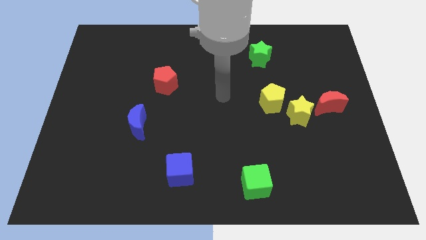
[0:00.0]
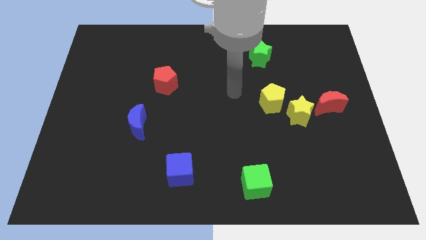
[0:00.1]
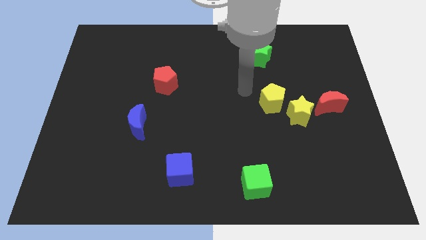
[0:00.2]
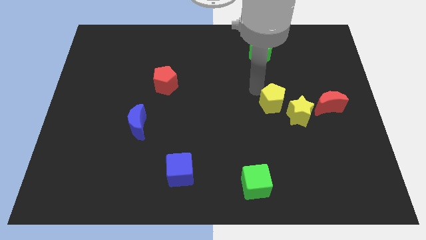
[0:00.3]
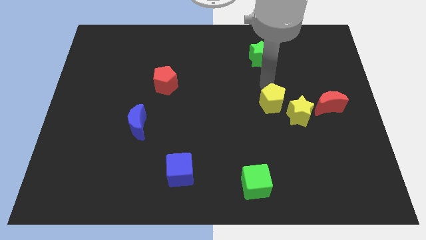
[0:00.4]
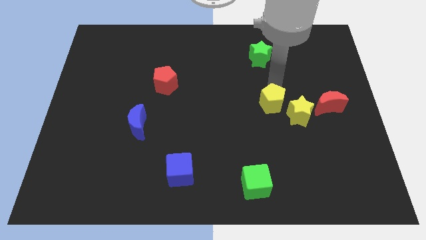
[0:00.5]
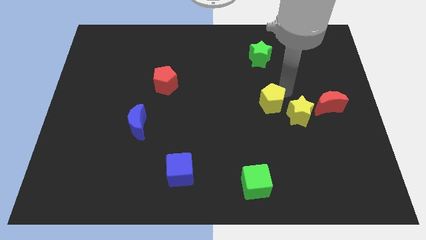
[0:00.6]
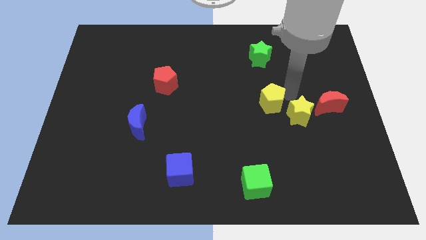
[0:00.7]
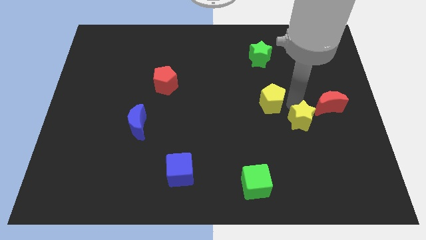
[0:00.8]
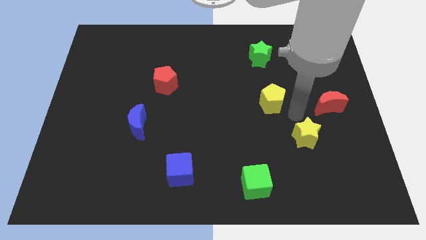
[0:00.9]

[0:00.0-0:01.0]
move the yellow pentagon away from the yellow star

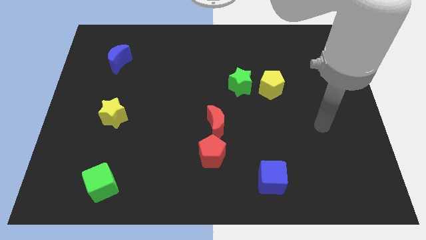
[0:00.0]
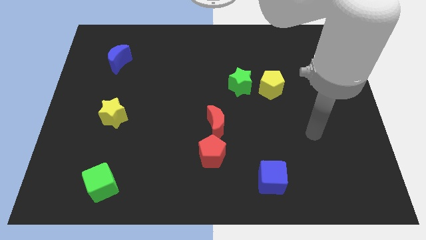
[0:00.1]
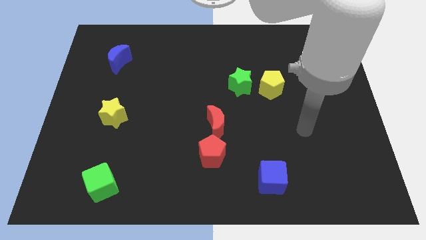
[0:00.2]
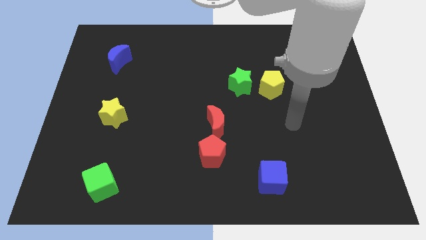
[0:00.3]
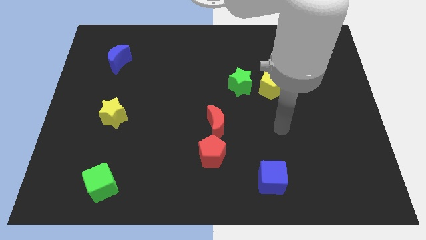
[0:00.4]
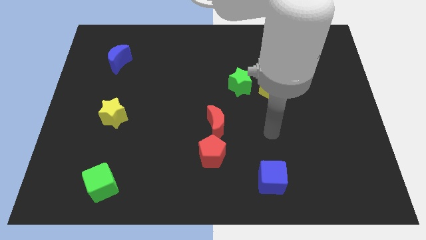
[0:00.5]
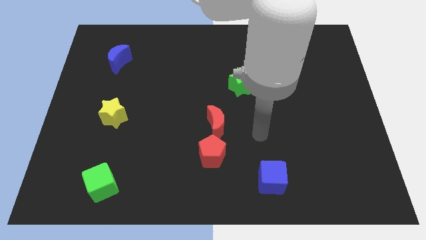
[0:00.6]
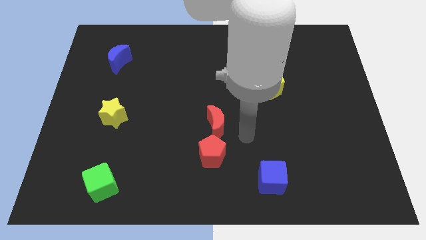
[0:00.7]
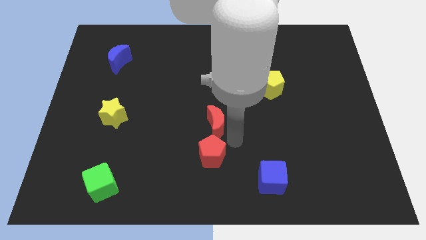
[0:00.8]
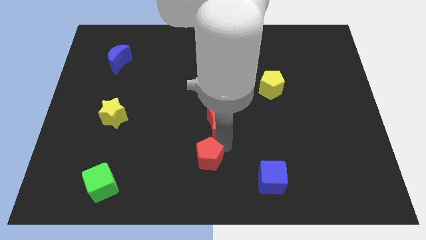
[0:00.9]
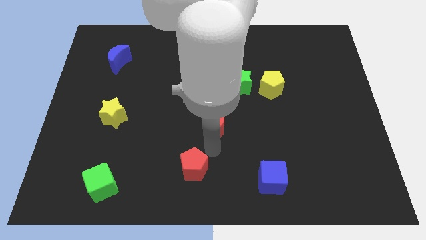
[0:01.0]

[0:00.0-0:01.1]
pull the red moon apart from the red pentagon

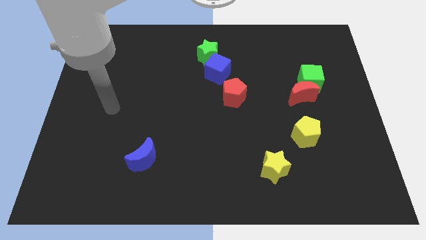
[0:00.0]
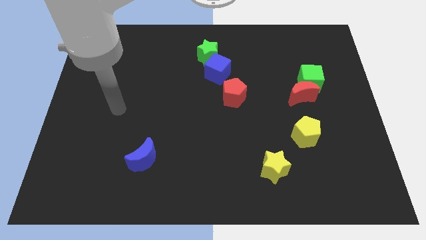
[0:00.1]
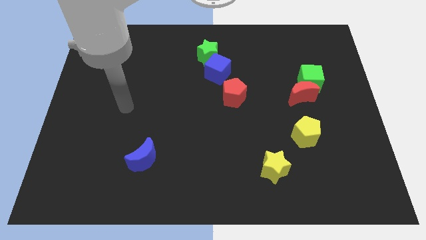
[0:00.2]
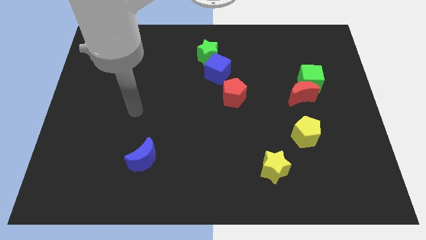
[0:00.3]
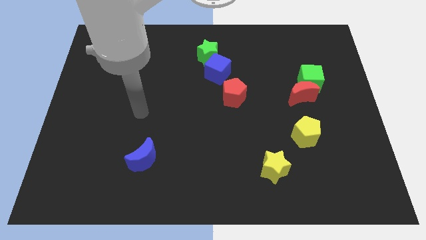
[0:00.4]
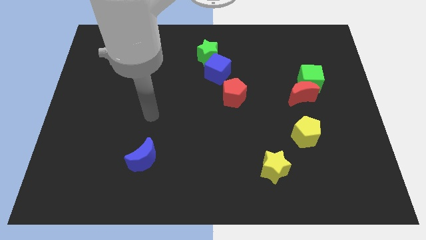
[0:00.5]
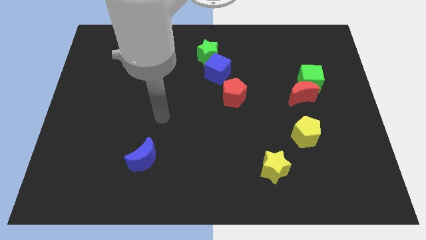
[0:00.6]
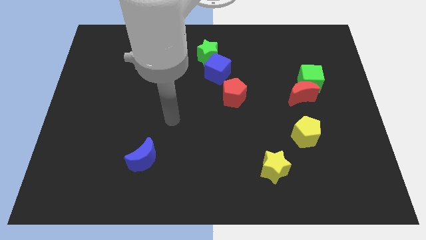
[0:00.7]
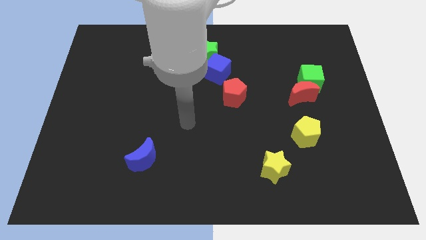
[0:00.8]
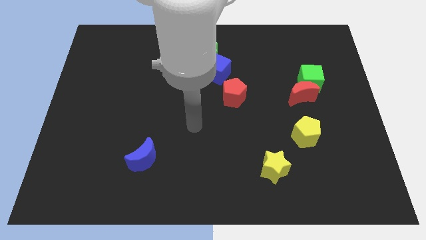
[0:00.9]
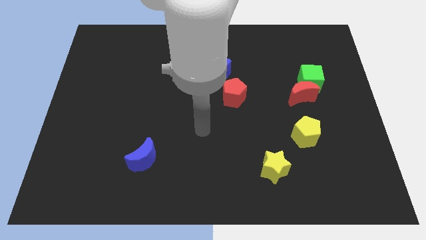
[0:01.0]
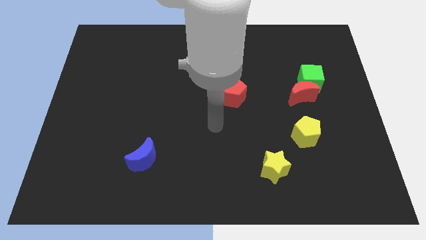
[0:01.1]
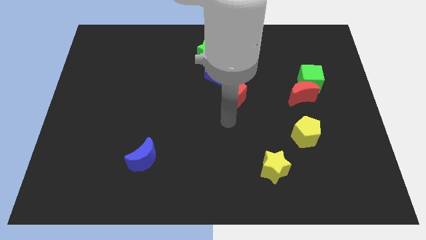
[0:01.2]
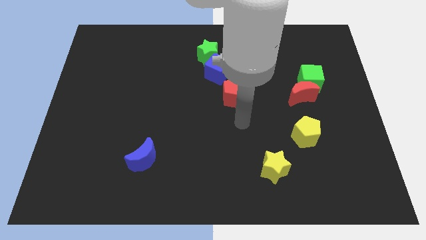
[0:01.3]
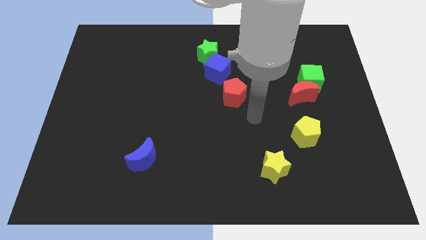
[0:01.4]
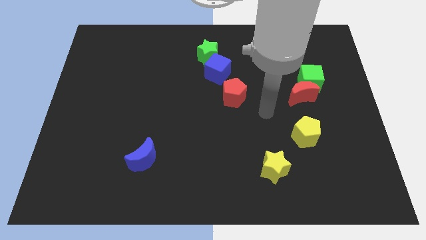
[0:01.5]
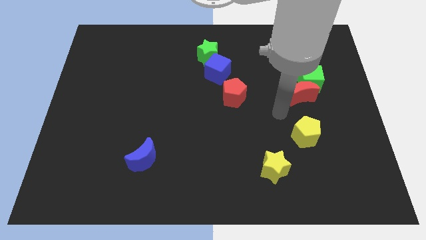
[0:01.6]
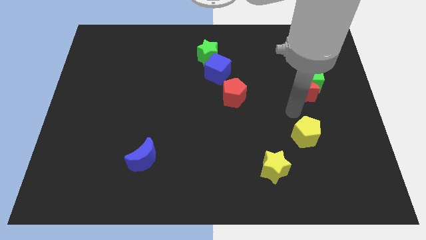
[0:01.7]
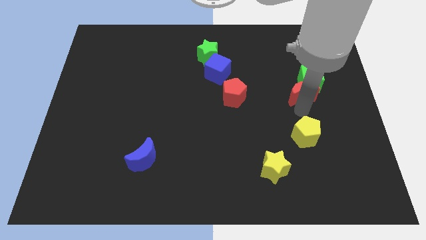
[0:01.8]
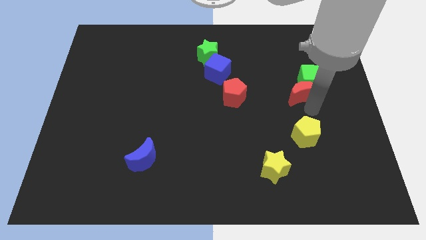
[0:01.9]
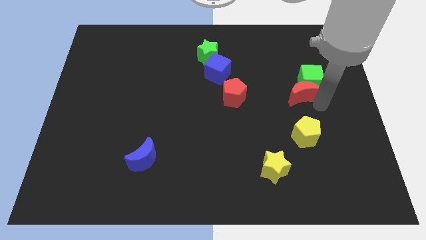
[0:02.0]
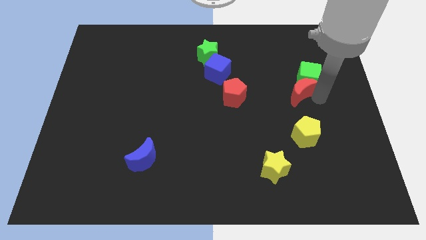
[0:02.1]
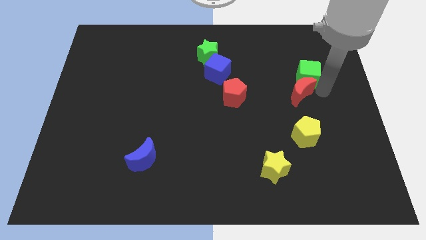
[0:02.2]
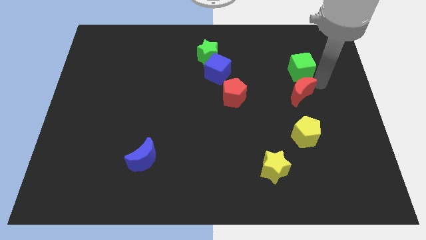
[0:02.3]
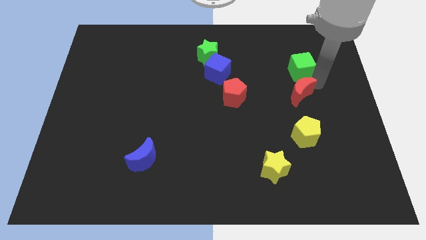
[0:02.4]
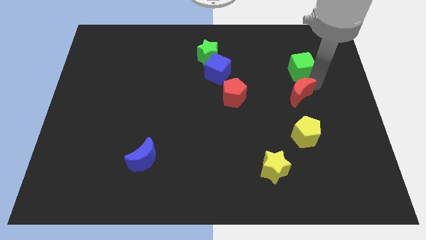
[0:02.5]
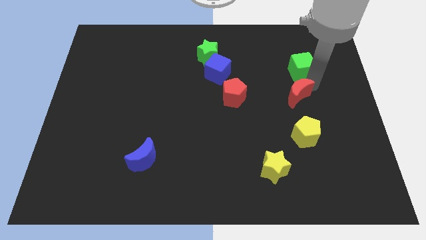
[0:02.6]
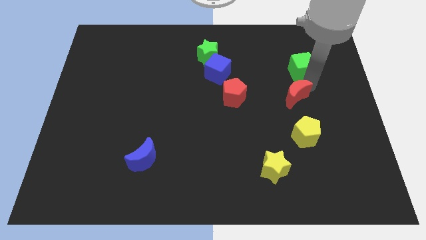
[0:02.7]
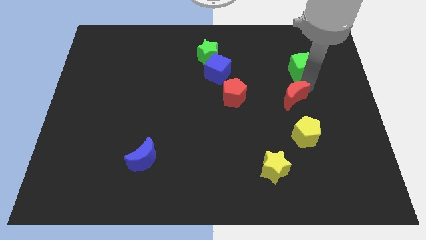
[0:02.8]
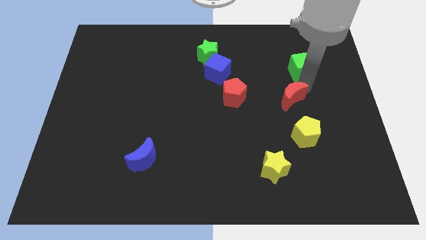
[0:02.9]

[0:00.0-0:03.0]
separate the red moon from the green cube

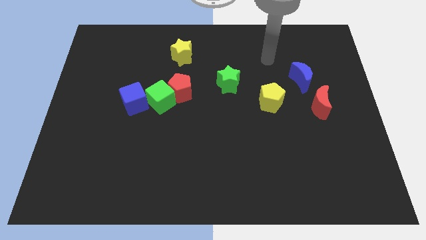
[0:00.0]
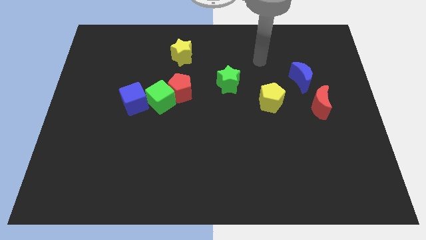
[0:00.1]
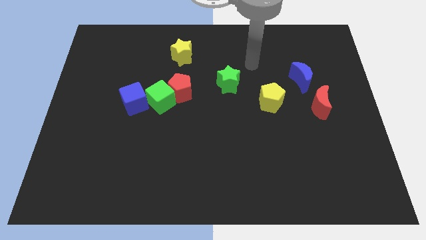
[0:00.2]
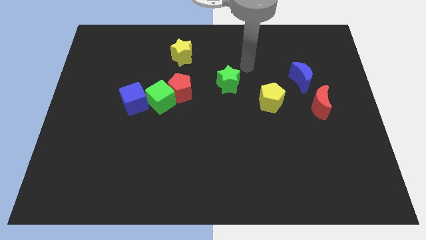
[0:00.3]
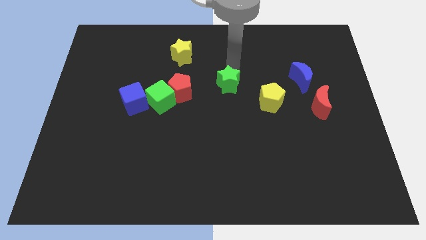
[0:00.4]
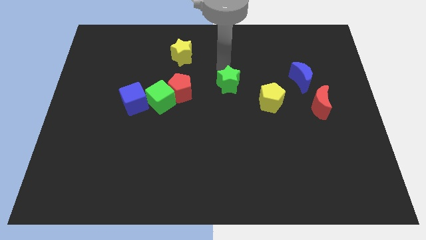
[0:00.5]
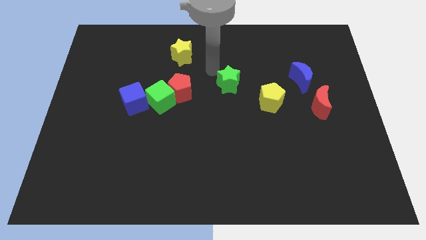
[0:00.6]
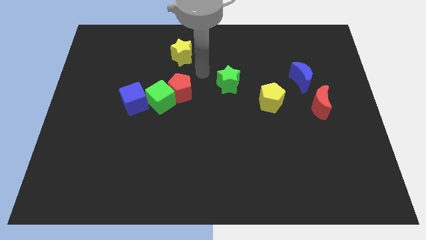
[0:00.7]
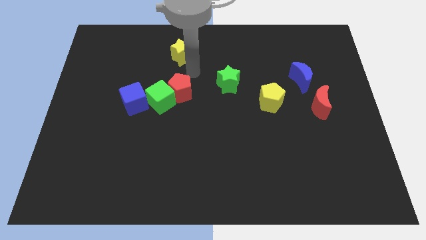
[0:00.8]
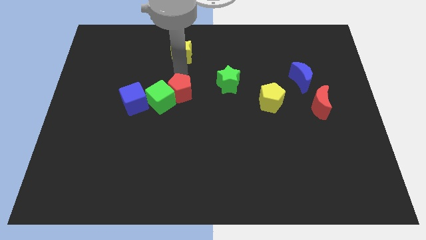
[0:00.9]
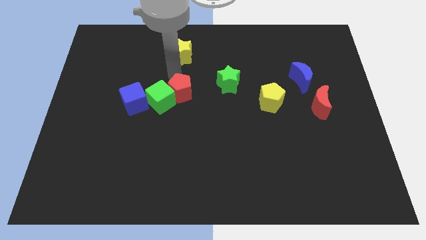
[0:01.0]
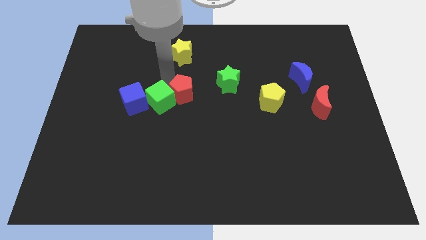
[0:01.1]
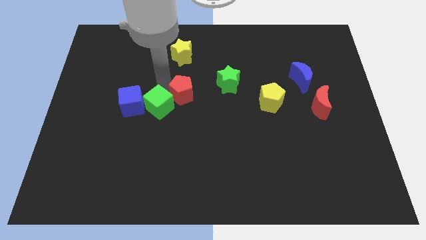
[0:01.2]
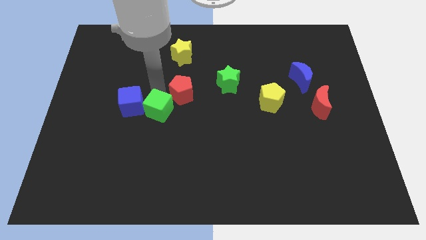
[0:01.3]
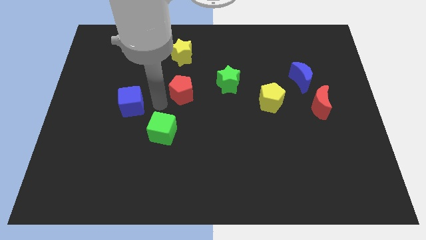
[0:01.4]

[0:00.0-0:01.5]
pull the red pentagon apart from the green cube

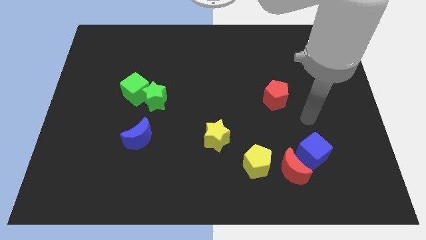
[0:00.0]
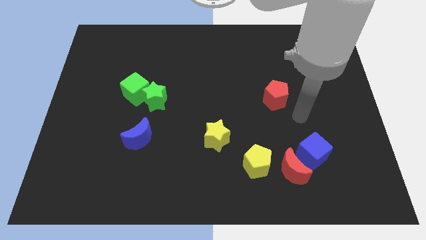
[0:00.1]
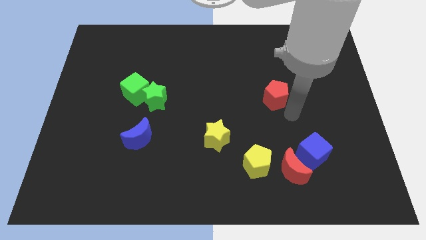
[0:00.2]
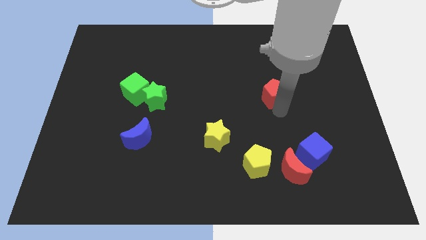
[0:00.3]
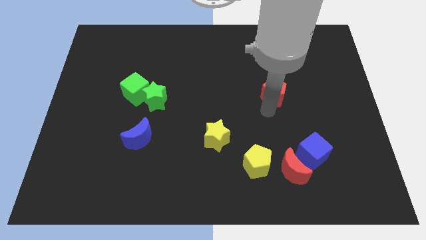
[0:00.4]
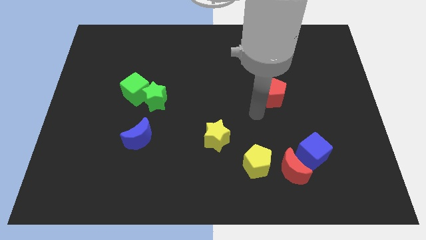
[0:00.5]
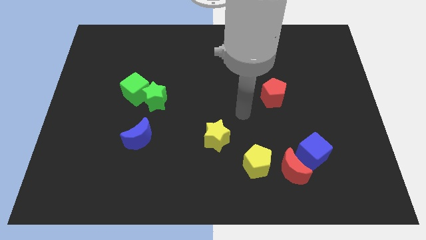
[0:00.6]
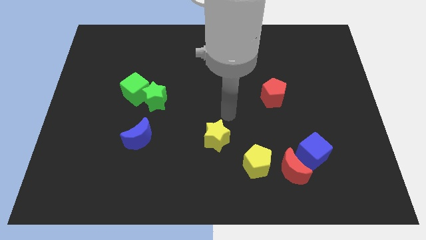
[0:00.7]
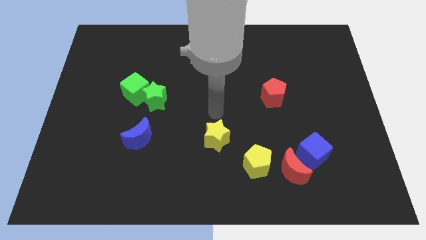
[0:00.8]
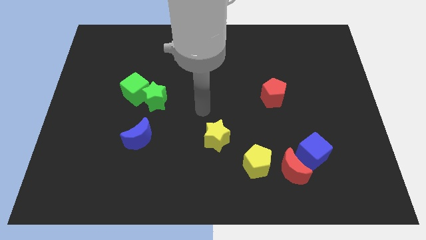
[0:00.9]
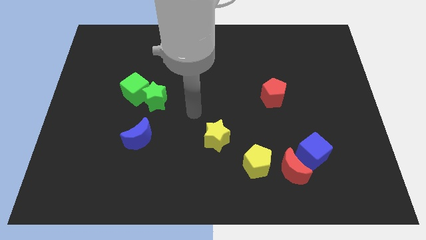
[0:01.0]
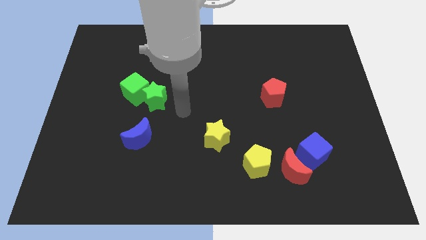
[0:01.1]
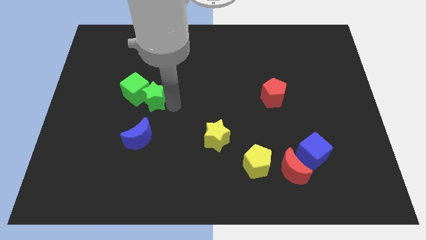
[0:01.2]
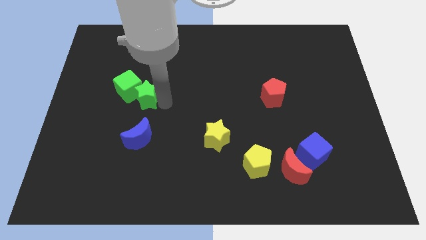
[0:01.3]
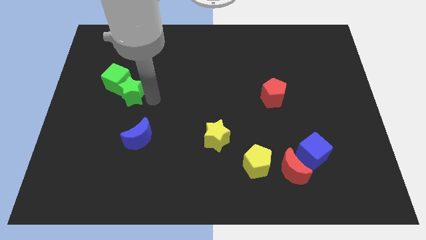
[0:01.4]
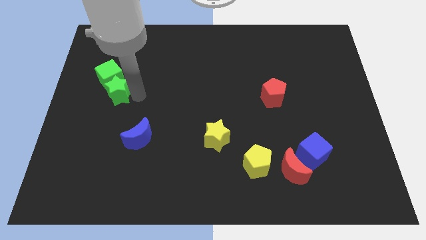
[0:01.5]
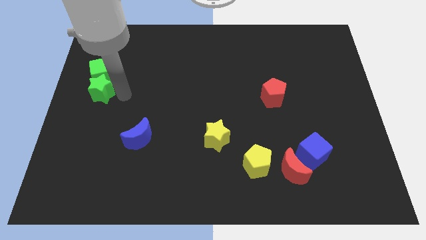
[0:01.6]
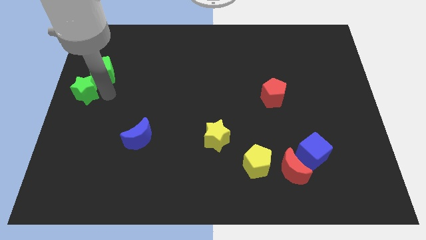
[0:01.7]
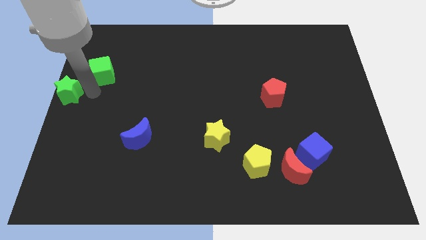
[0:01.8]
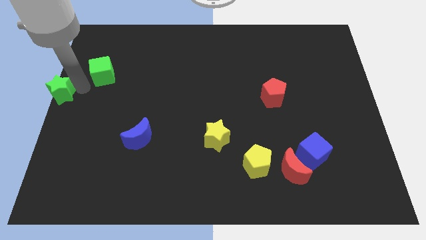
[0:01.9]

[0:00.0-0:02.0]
pull the green cube apart from the green star

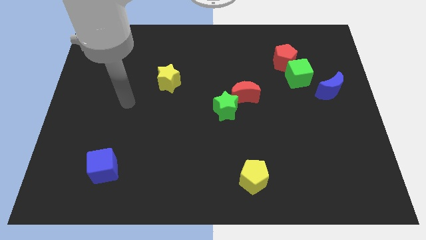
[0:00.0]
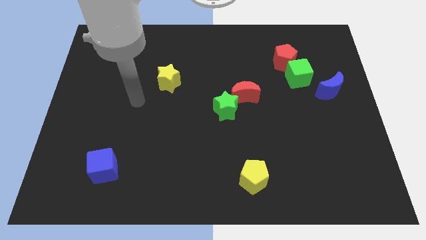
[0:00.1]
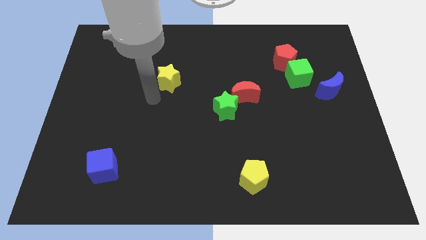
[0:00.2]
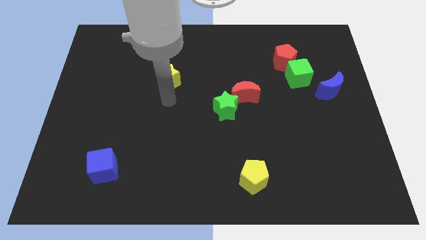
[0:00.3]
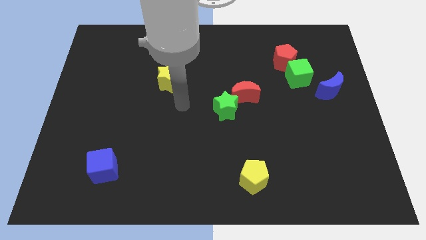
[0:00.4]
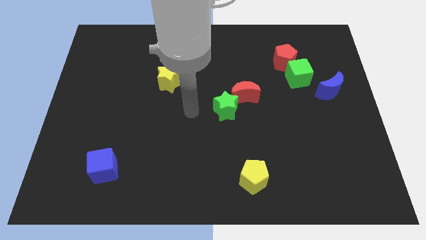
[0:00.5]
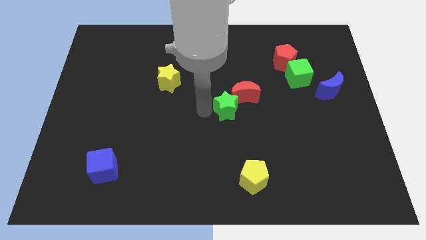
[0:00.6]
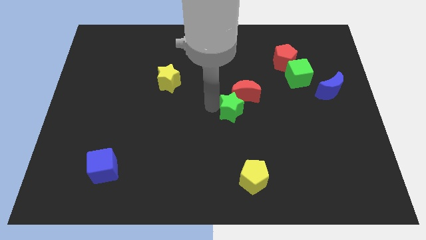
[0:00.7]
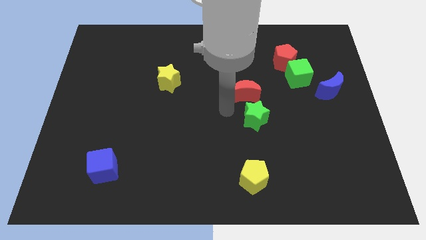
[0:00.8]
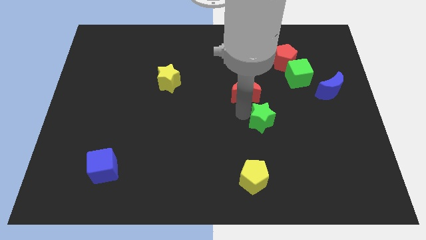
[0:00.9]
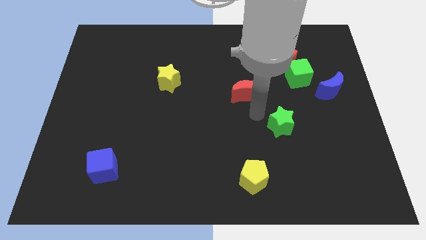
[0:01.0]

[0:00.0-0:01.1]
move the red moon away from the green star
